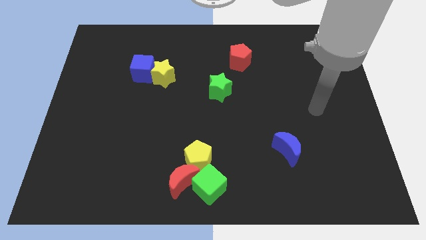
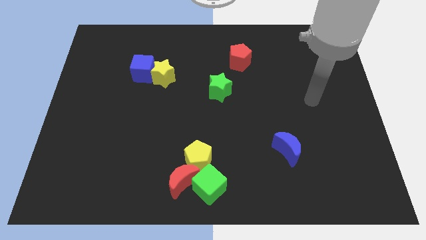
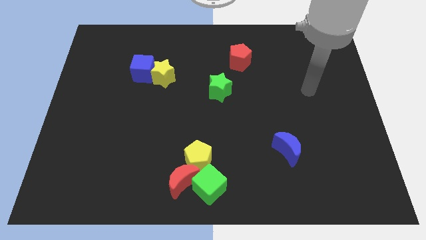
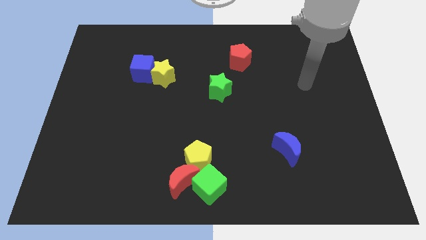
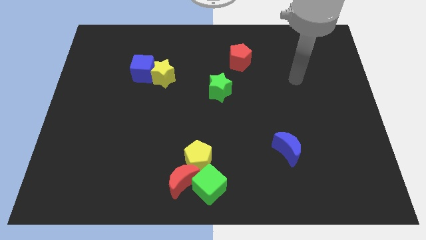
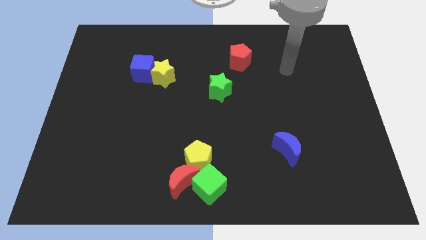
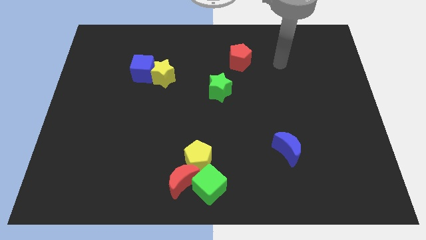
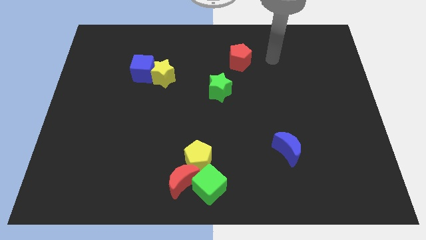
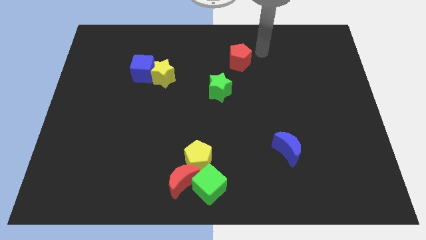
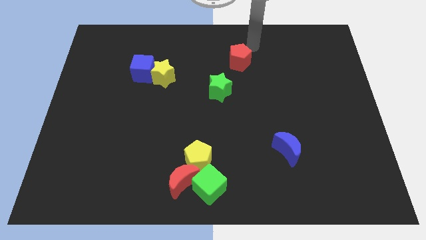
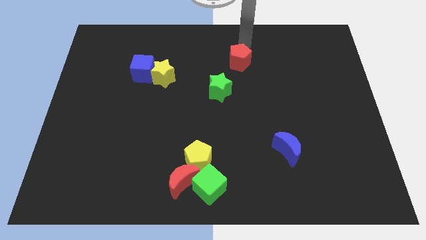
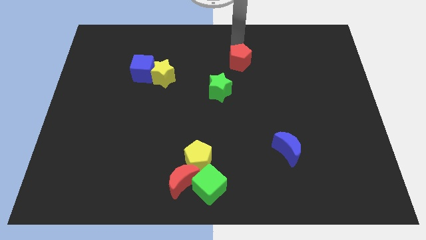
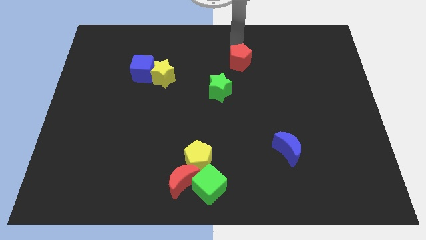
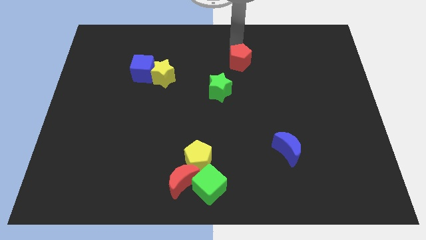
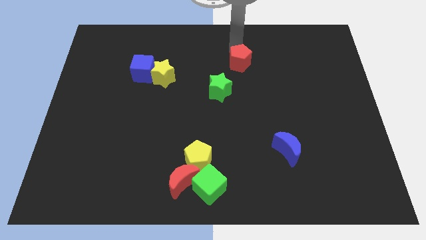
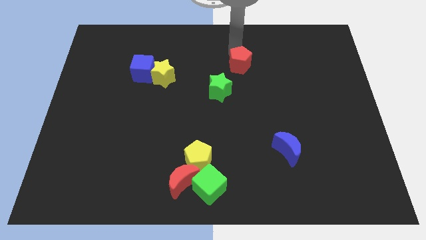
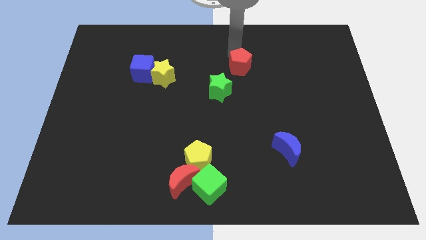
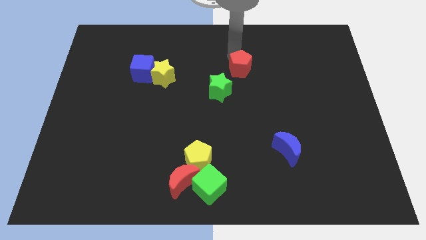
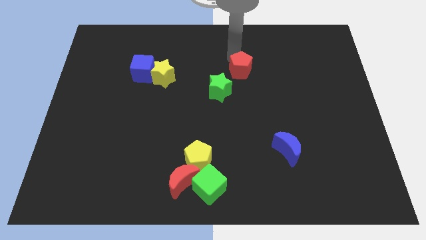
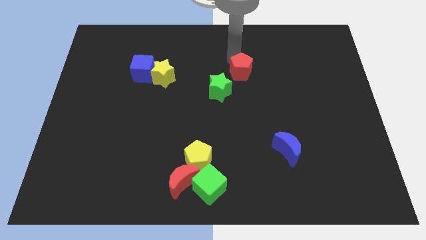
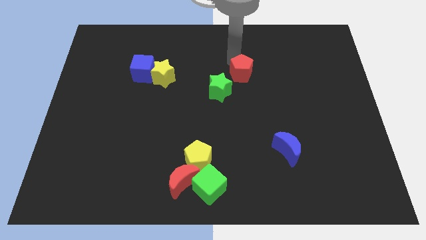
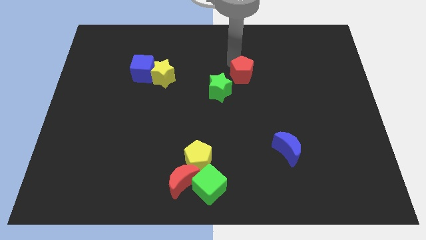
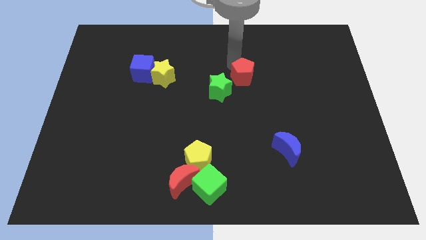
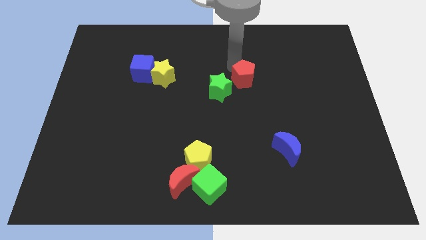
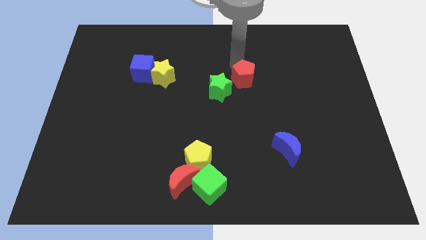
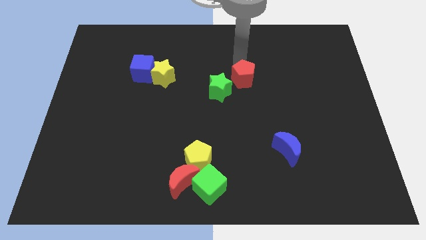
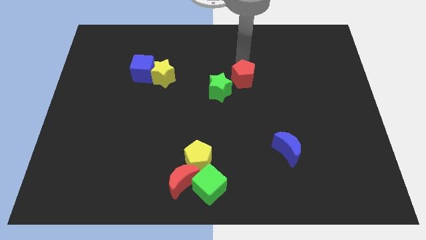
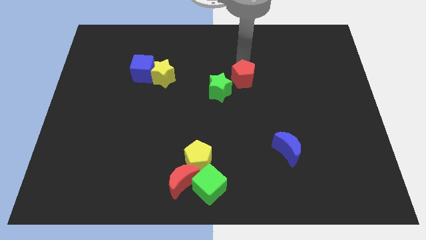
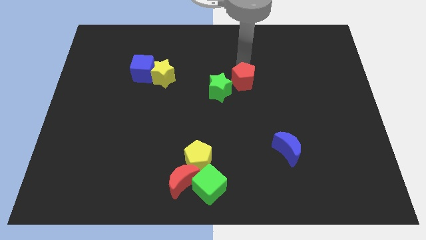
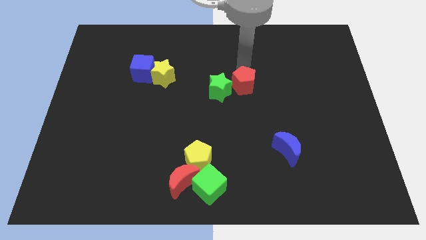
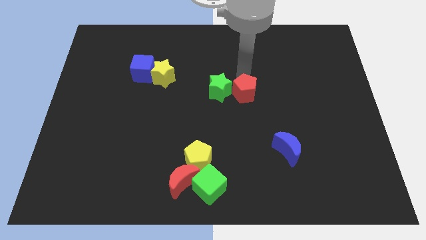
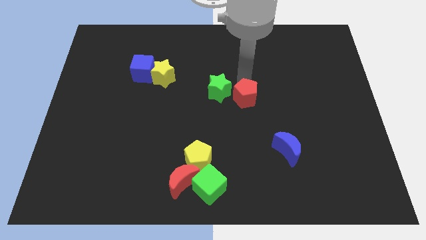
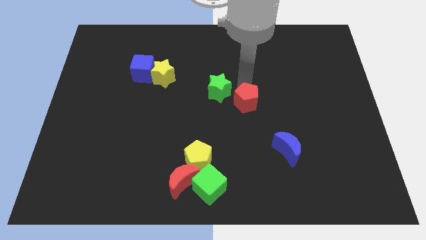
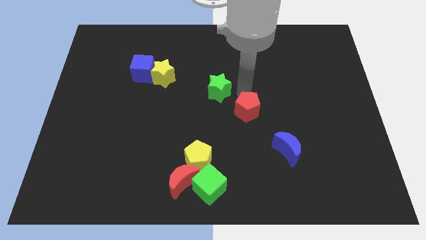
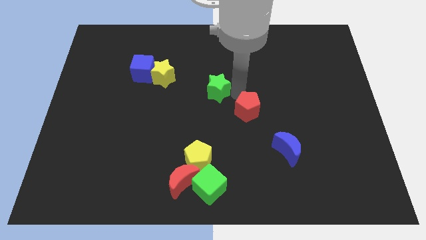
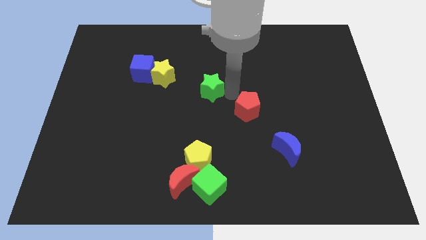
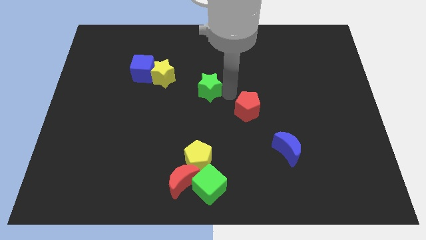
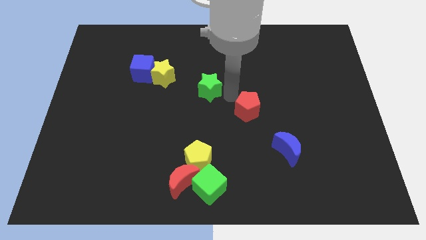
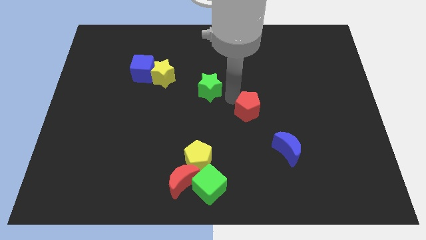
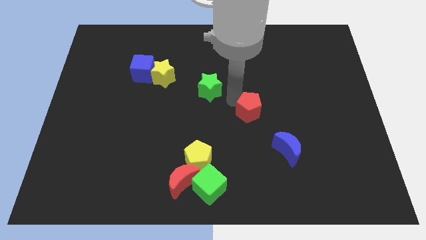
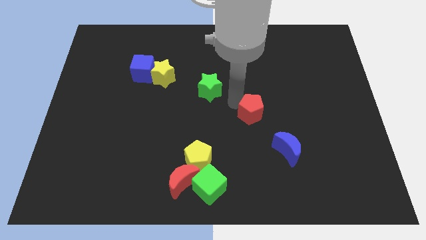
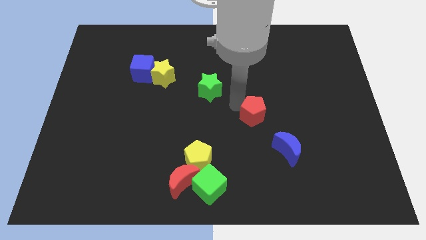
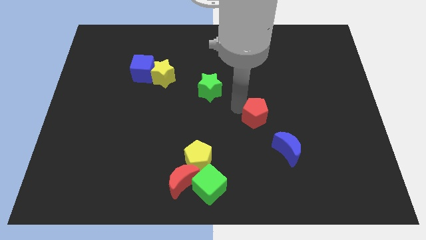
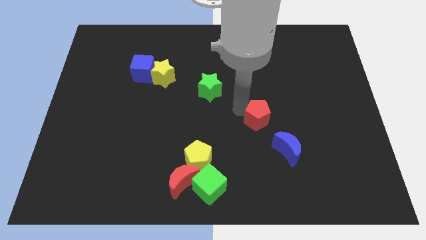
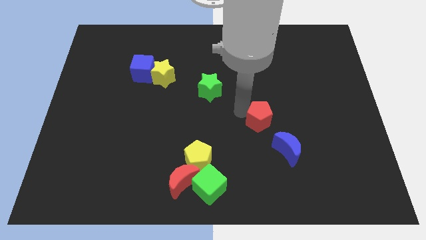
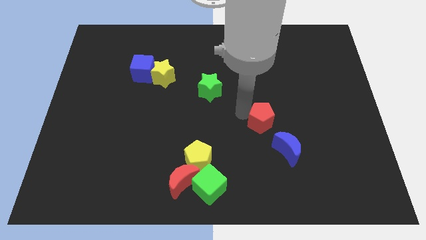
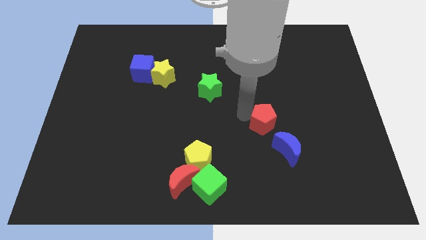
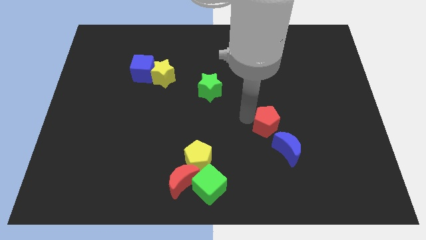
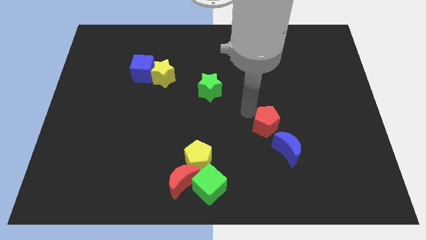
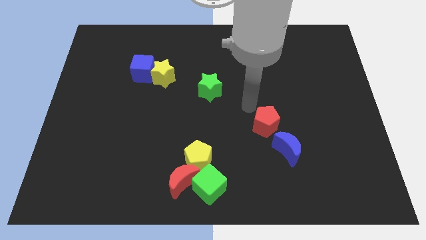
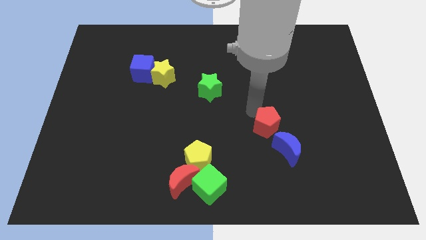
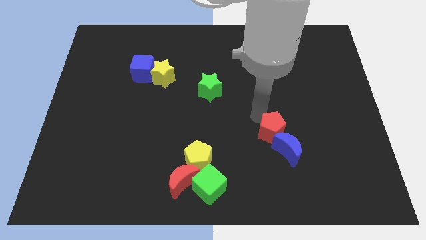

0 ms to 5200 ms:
push the red pentagon close to the blue moon

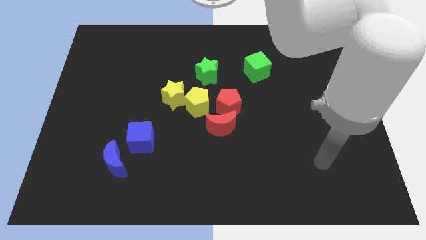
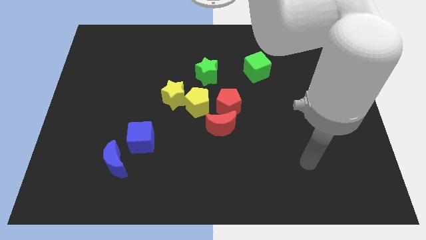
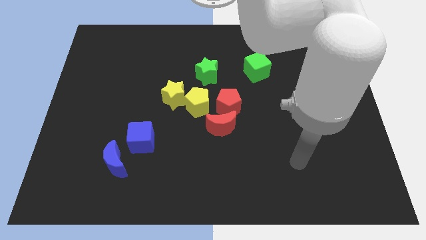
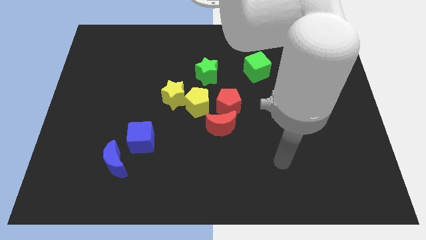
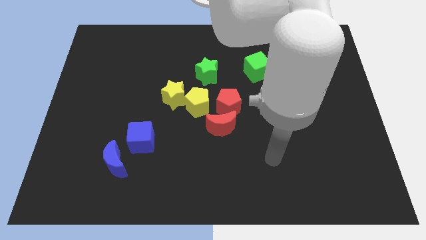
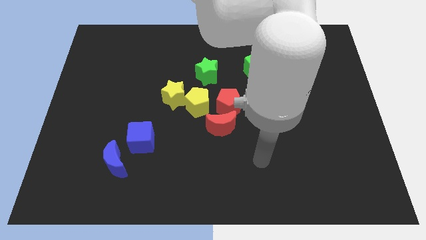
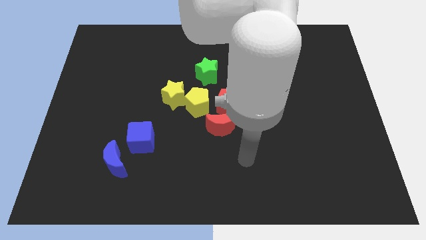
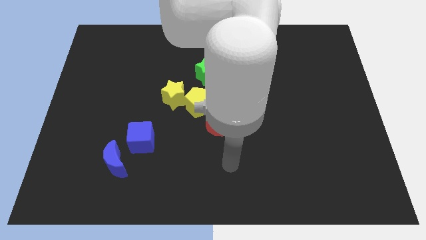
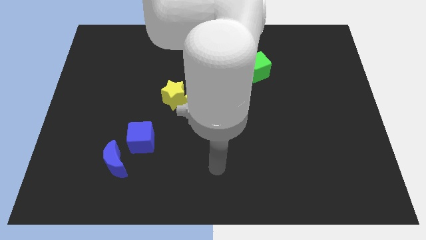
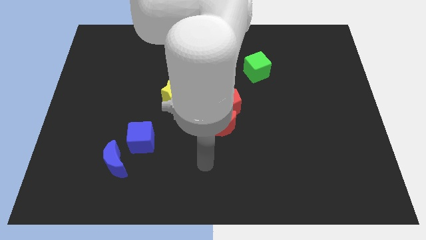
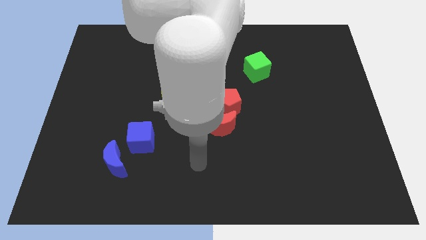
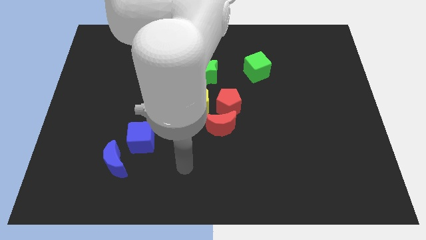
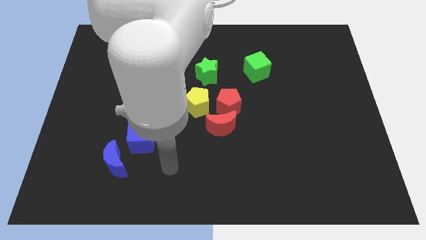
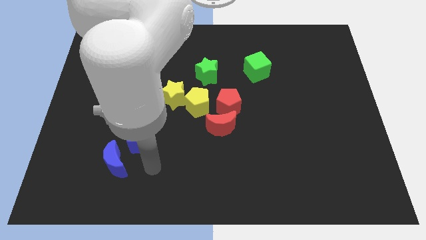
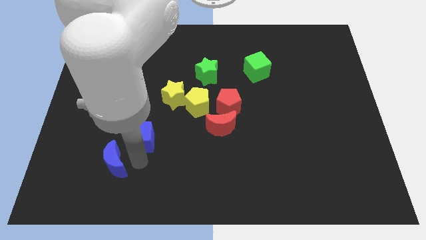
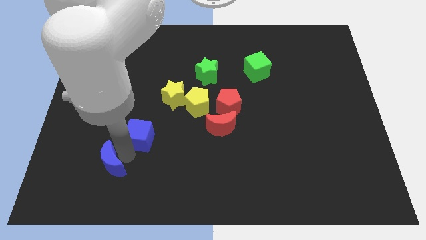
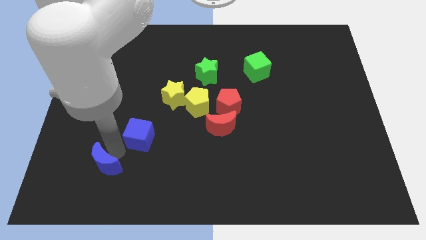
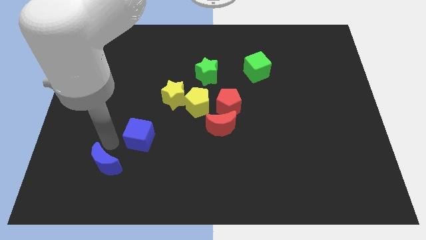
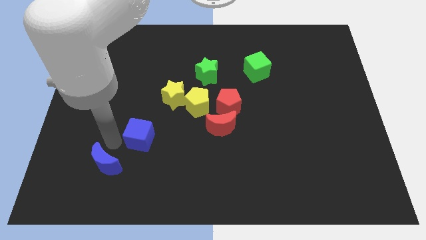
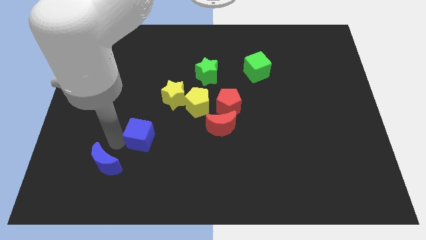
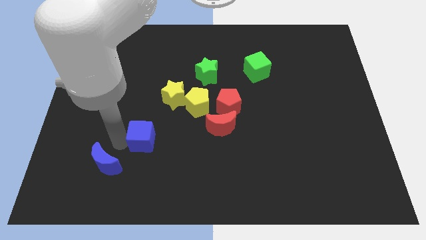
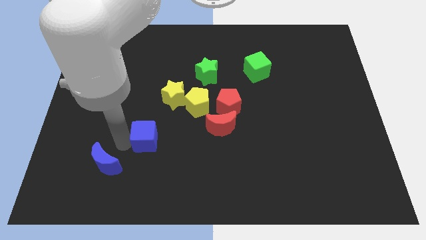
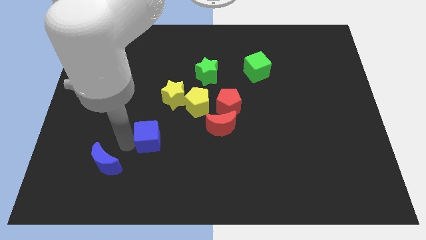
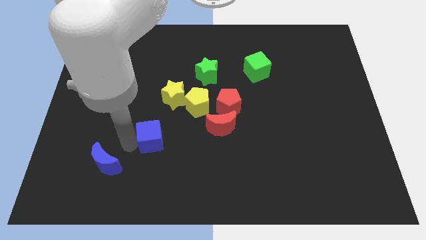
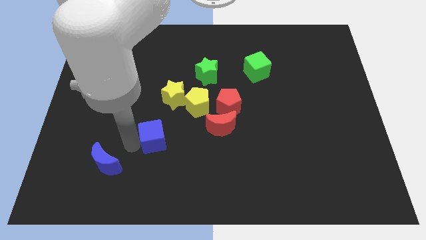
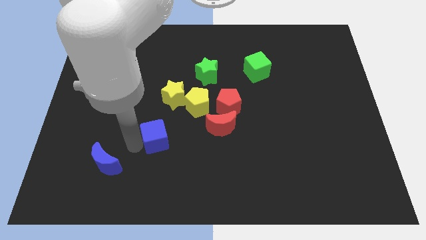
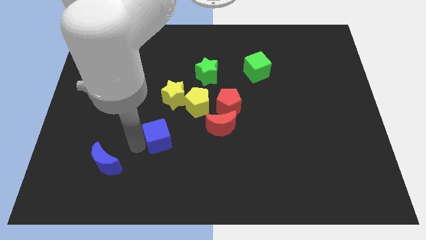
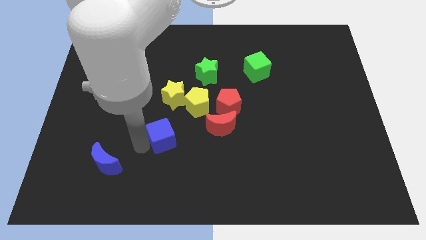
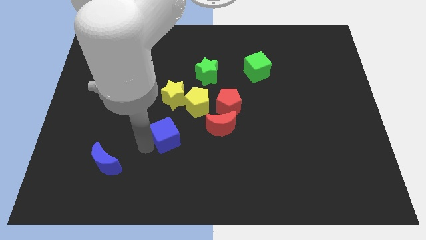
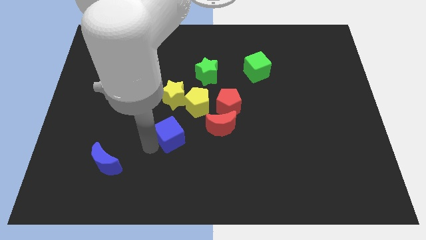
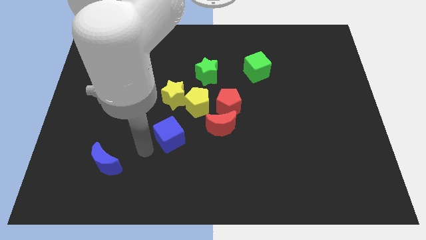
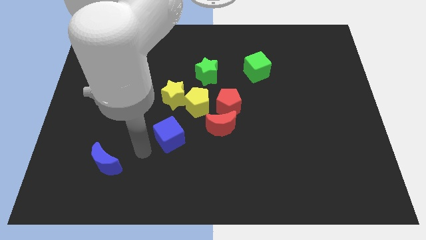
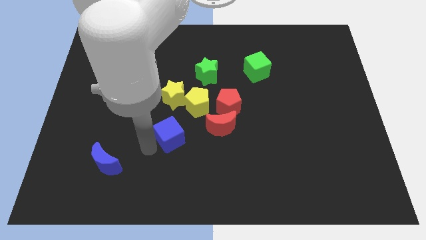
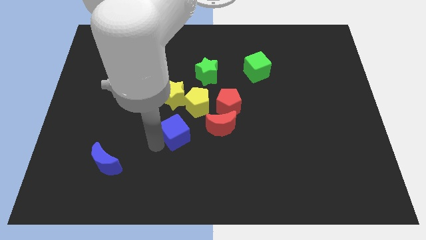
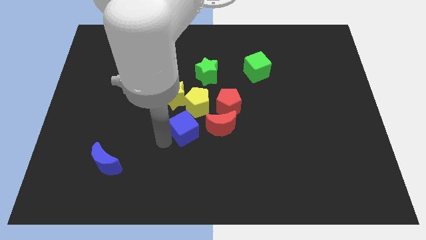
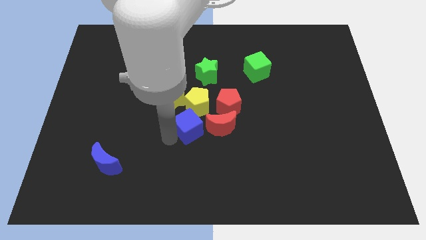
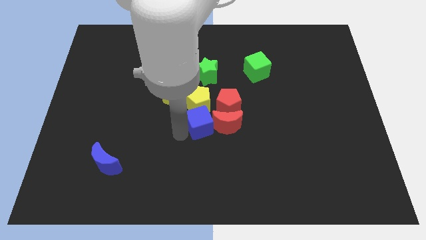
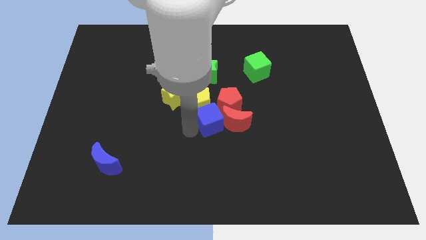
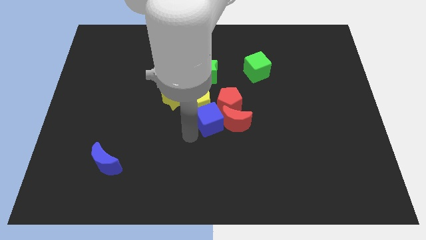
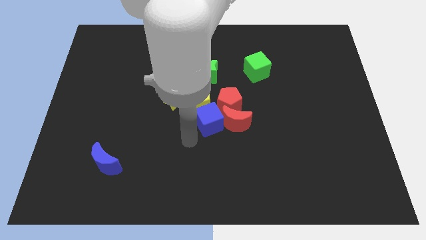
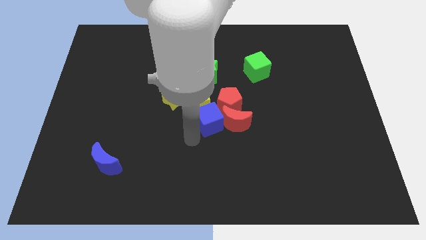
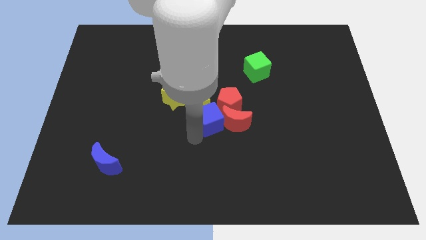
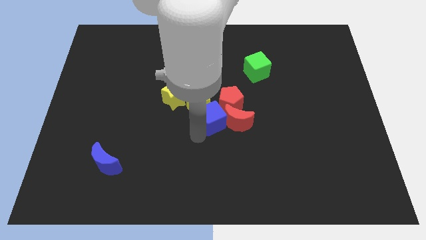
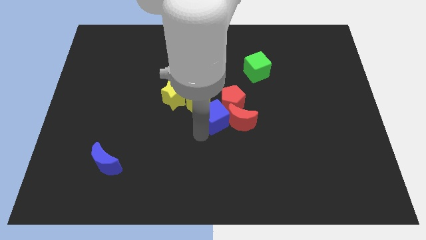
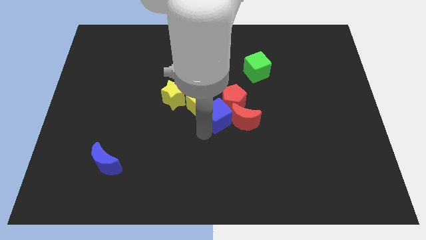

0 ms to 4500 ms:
put the blue cube next to the red pentagon
